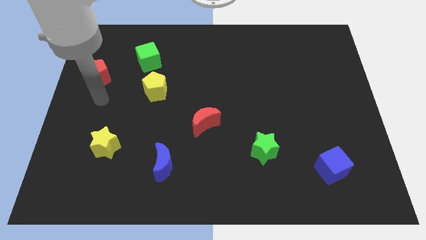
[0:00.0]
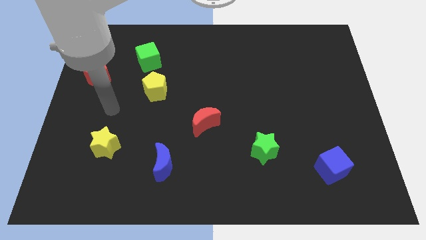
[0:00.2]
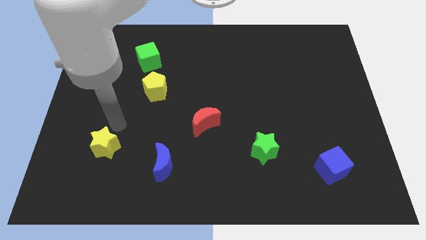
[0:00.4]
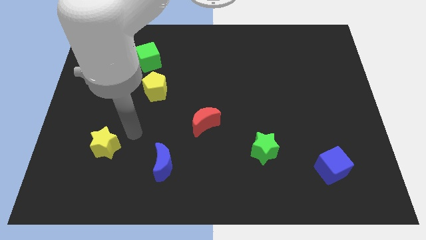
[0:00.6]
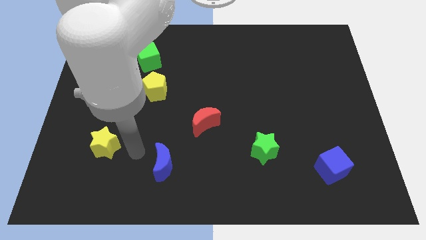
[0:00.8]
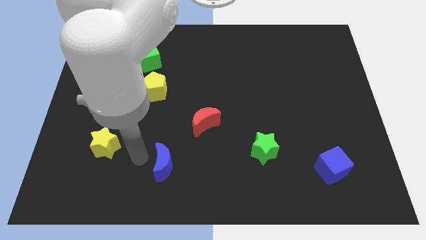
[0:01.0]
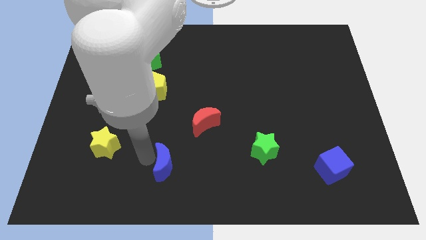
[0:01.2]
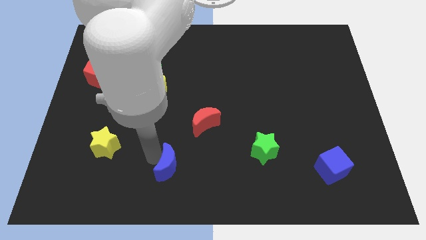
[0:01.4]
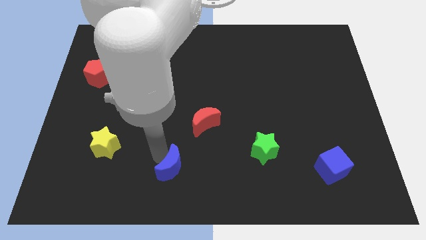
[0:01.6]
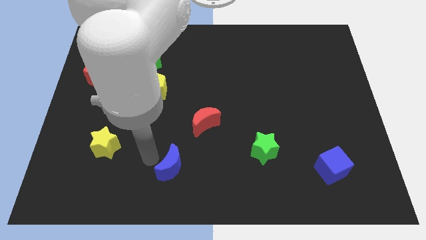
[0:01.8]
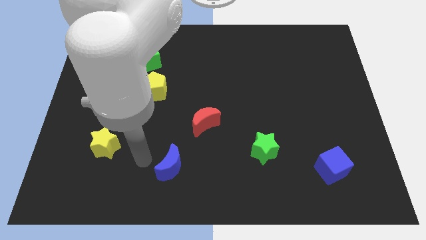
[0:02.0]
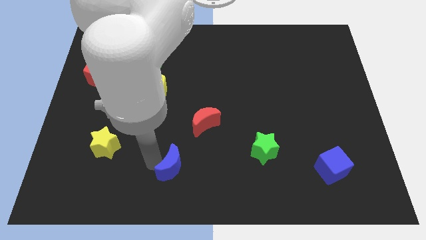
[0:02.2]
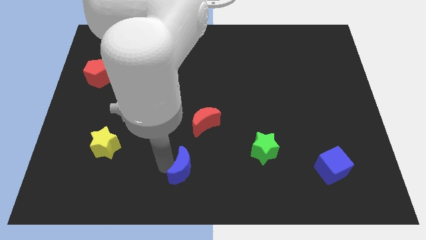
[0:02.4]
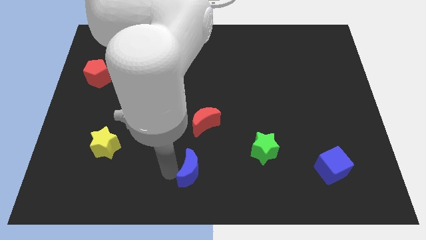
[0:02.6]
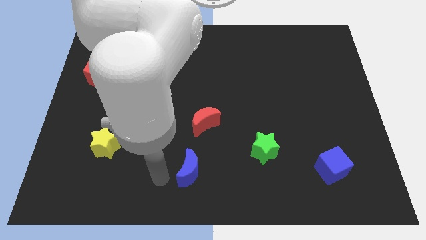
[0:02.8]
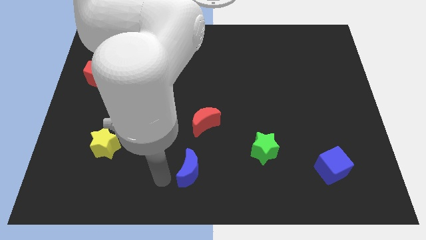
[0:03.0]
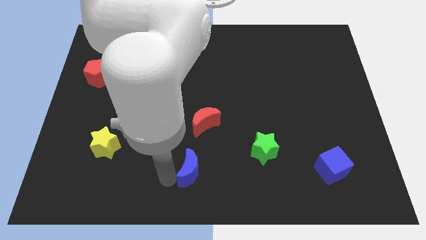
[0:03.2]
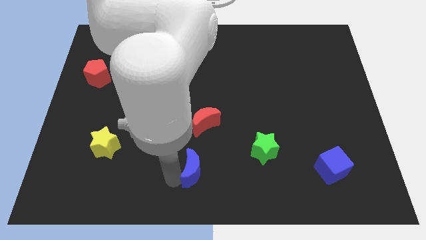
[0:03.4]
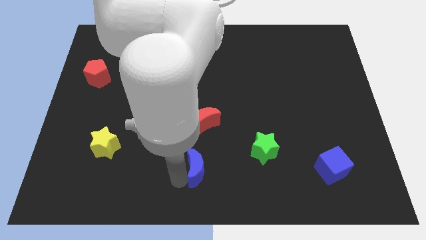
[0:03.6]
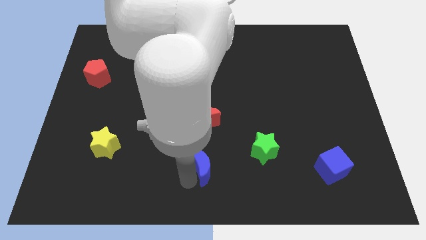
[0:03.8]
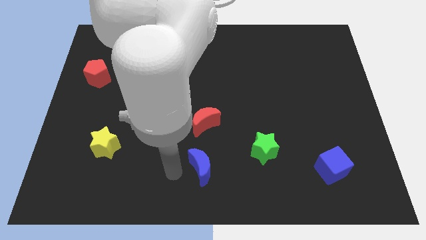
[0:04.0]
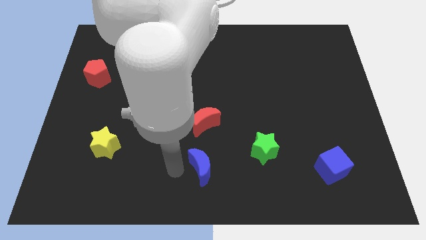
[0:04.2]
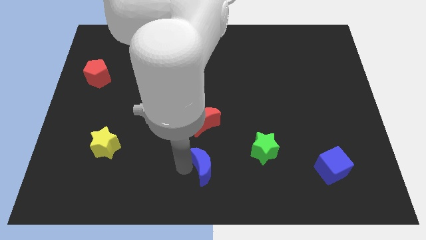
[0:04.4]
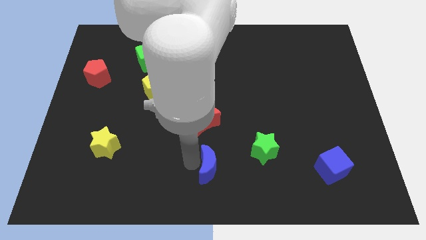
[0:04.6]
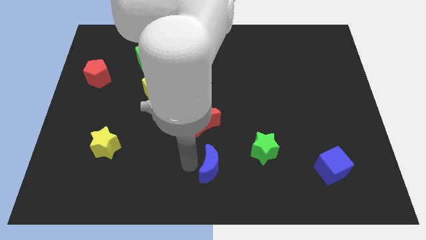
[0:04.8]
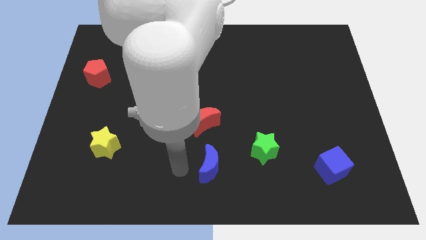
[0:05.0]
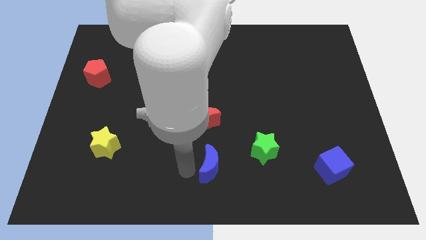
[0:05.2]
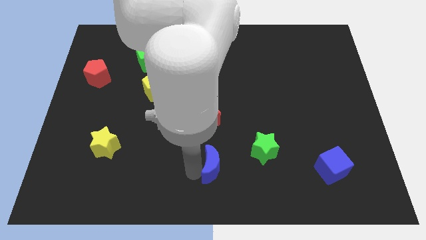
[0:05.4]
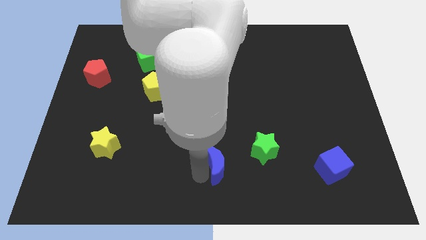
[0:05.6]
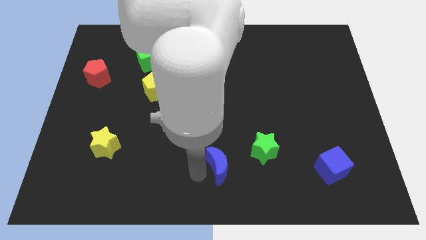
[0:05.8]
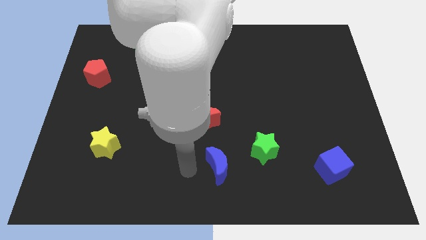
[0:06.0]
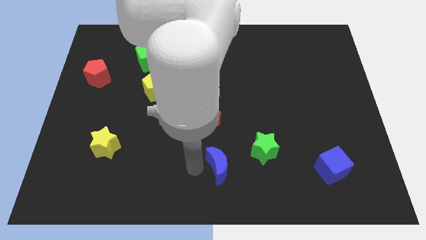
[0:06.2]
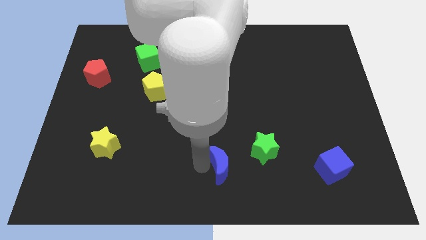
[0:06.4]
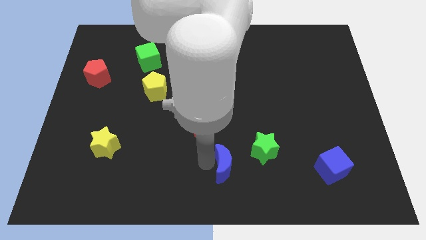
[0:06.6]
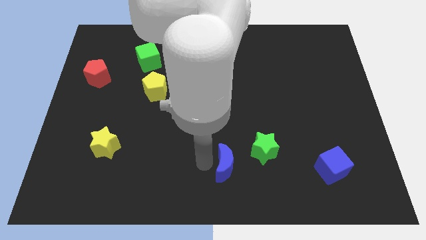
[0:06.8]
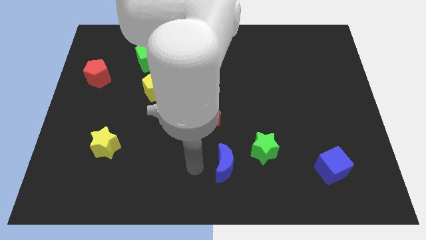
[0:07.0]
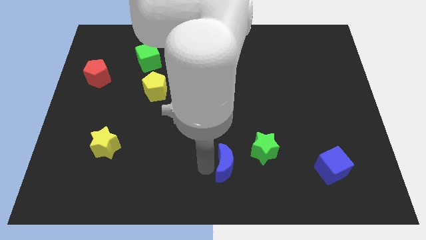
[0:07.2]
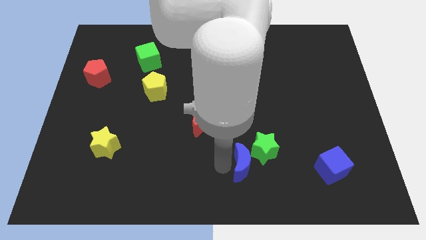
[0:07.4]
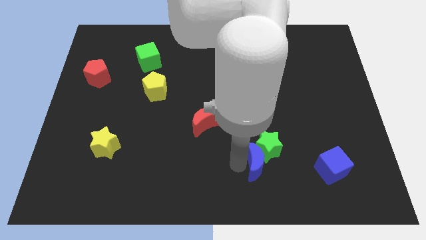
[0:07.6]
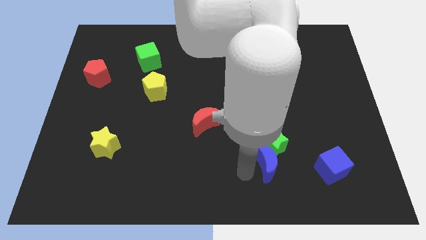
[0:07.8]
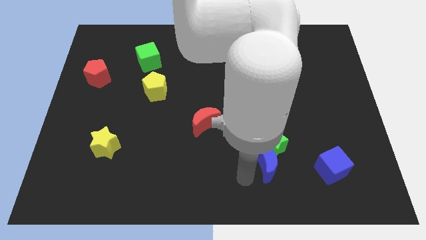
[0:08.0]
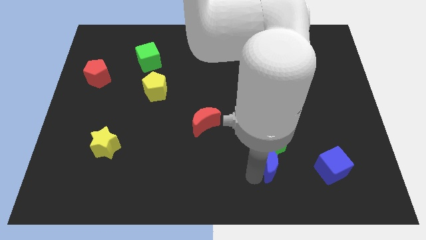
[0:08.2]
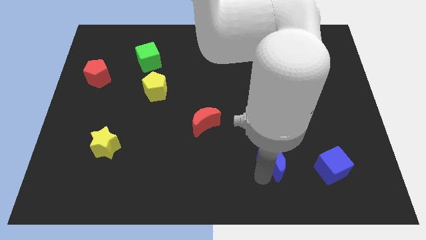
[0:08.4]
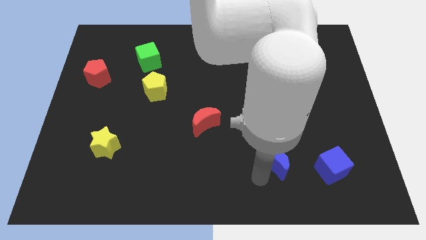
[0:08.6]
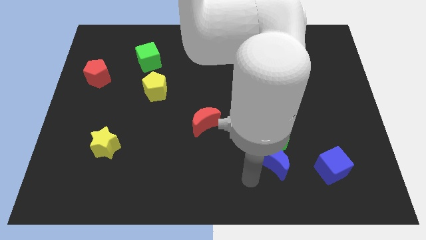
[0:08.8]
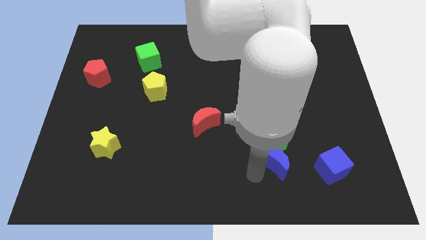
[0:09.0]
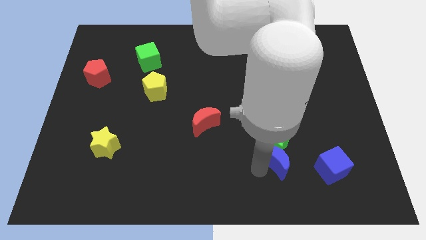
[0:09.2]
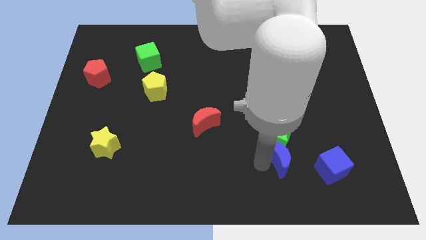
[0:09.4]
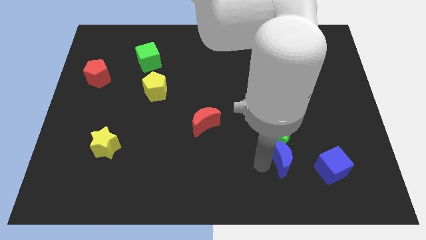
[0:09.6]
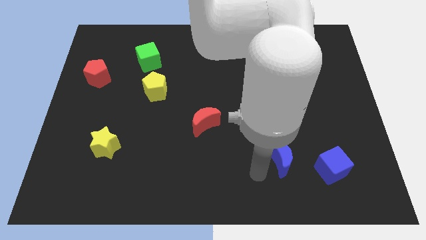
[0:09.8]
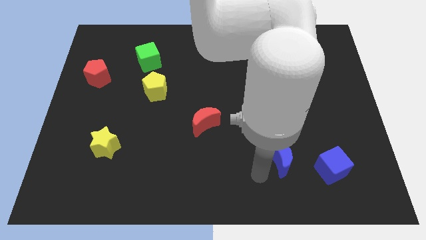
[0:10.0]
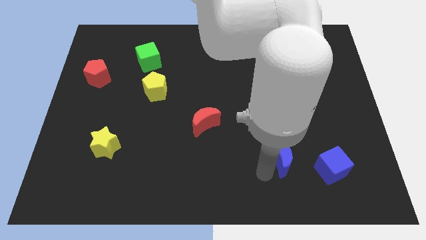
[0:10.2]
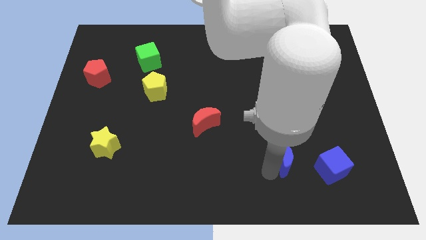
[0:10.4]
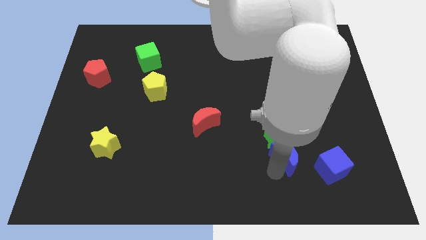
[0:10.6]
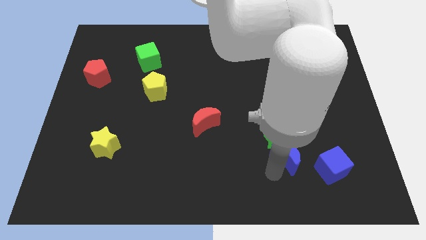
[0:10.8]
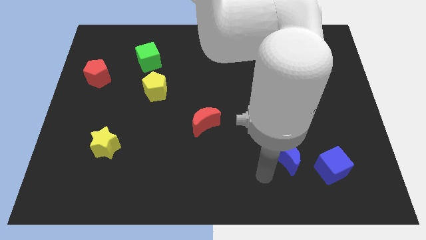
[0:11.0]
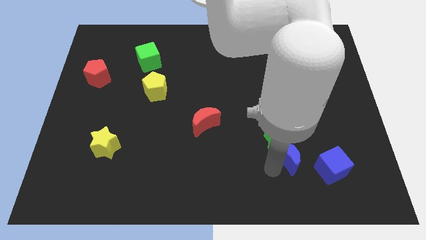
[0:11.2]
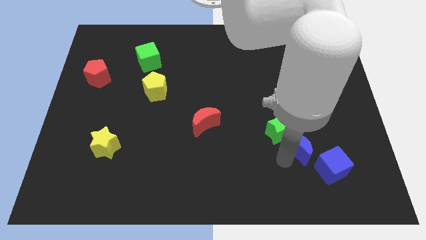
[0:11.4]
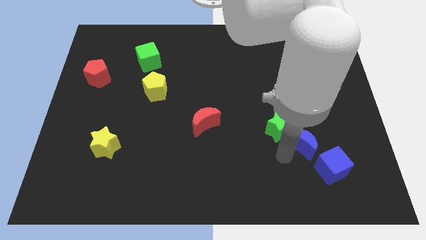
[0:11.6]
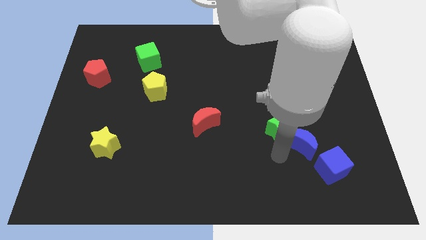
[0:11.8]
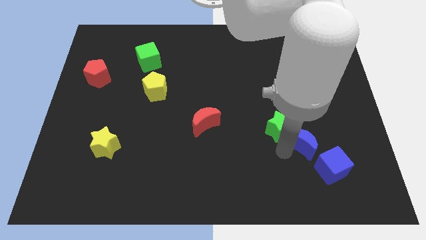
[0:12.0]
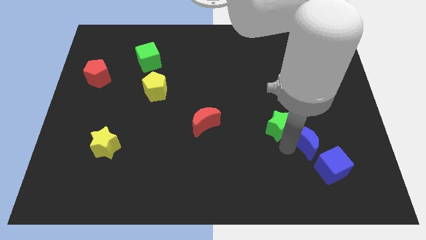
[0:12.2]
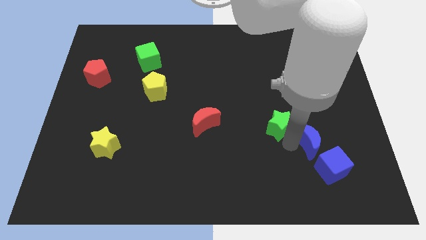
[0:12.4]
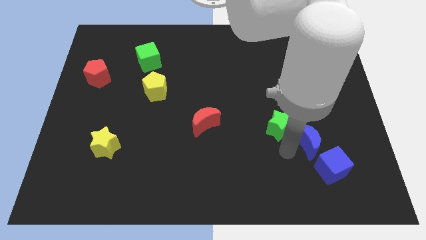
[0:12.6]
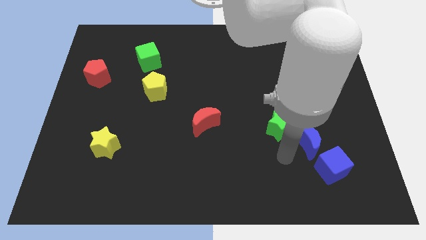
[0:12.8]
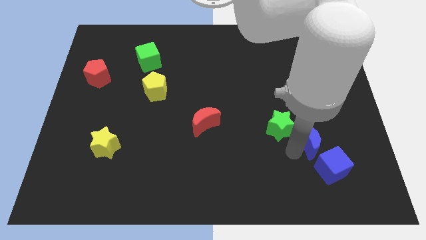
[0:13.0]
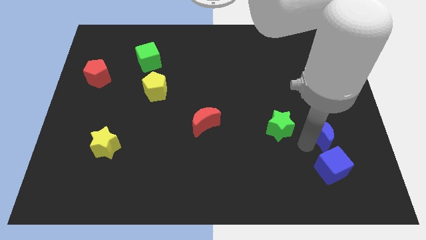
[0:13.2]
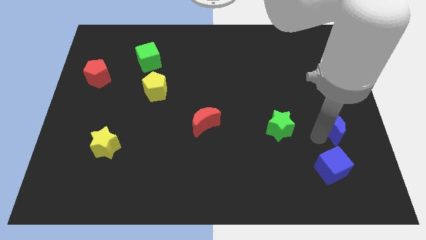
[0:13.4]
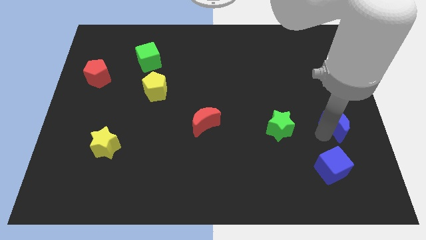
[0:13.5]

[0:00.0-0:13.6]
slide the blue moon to the center right
